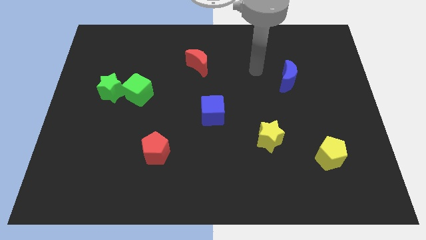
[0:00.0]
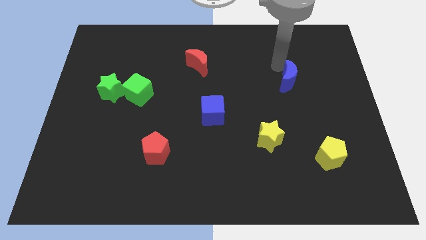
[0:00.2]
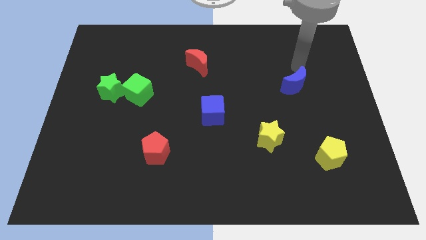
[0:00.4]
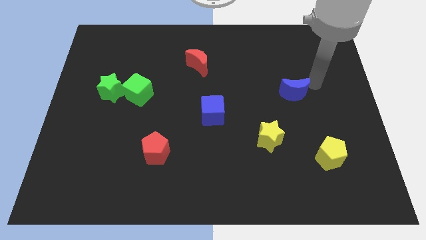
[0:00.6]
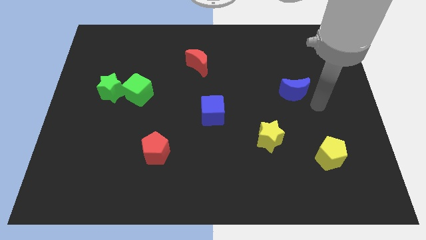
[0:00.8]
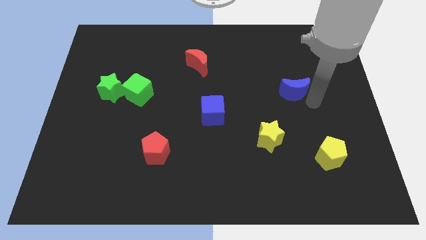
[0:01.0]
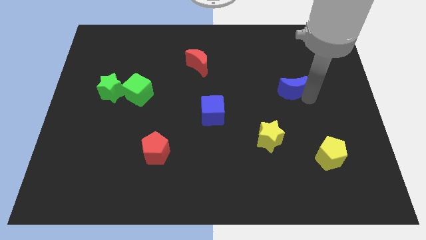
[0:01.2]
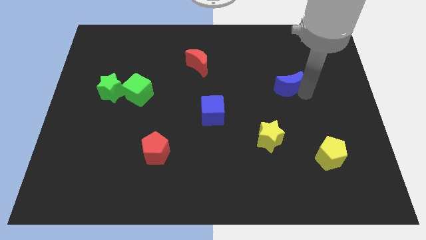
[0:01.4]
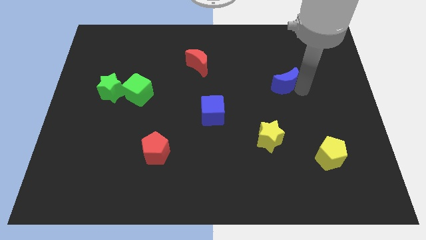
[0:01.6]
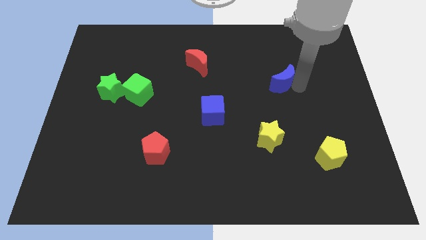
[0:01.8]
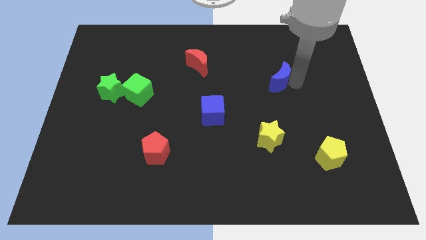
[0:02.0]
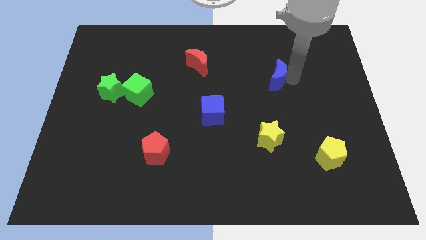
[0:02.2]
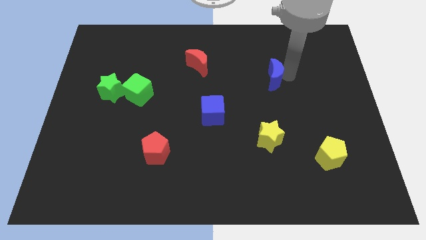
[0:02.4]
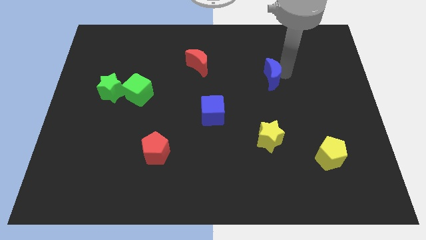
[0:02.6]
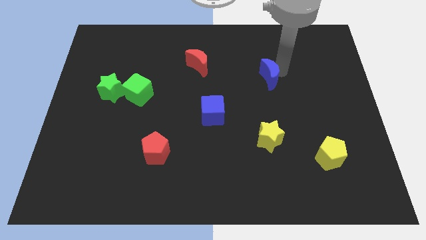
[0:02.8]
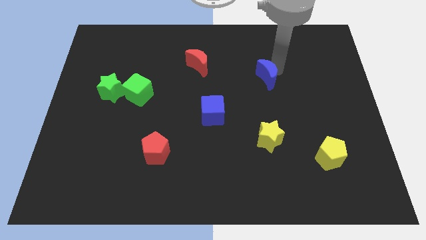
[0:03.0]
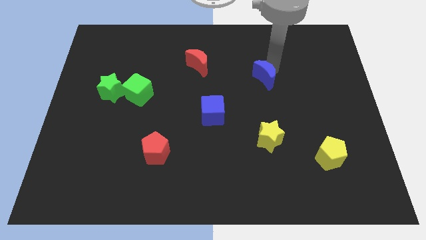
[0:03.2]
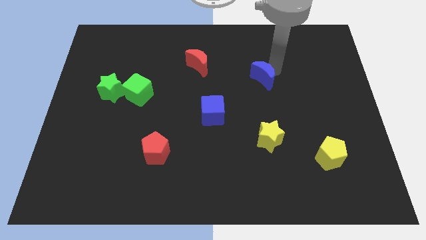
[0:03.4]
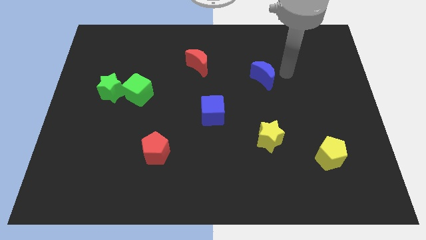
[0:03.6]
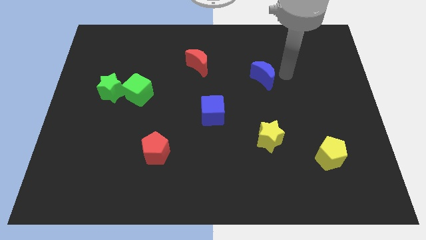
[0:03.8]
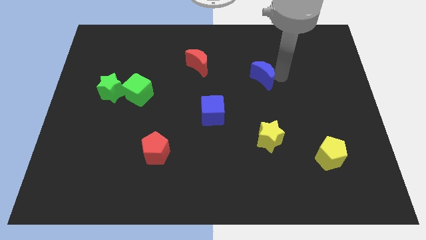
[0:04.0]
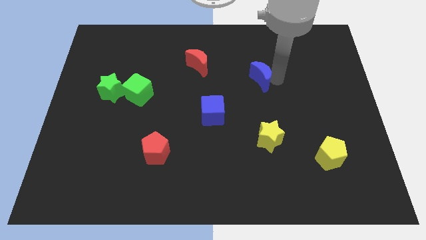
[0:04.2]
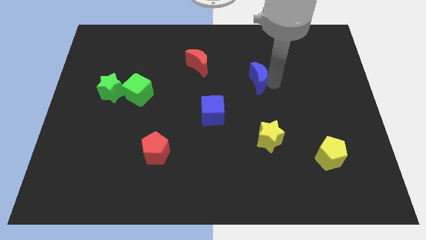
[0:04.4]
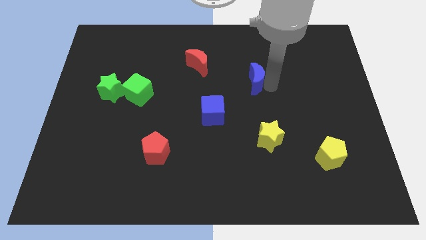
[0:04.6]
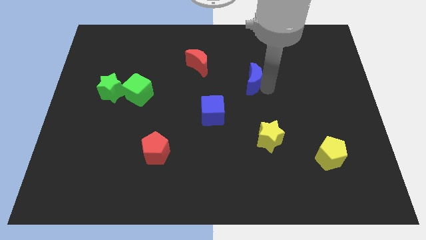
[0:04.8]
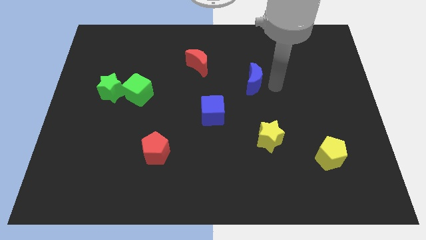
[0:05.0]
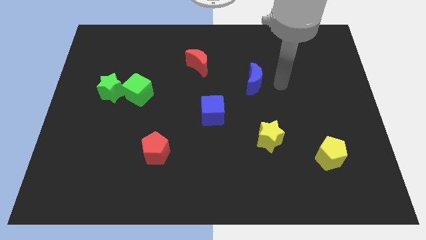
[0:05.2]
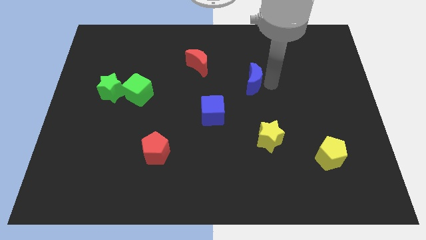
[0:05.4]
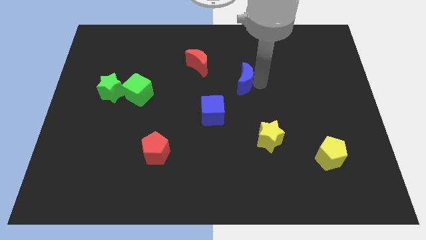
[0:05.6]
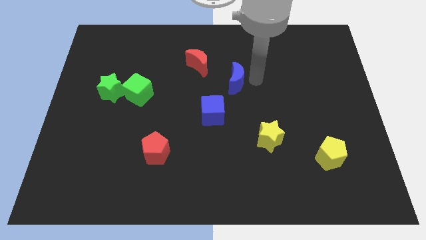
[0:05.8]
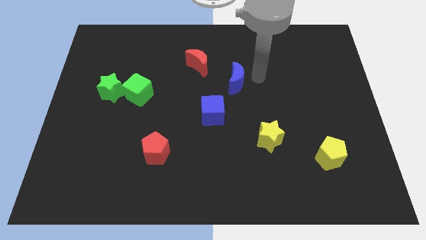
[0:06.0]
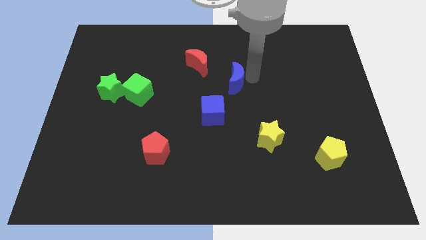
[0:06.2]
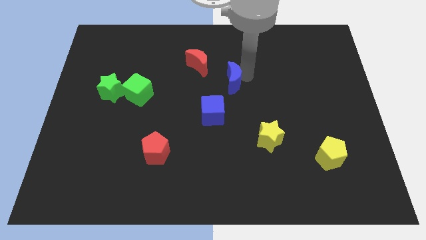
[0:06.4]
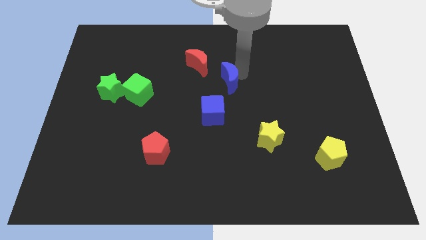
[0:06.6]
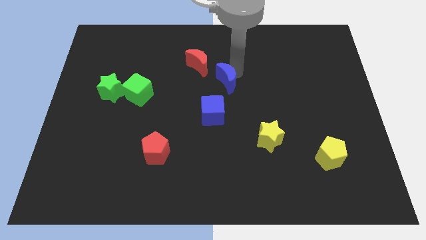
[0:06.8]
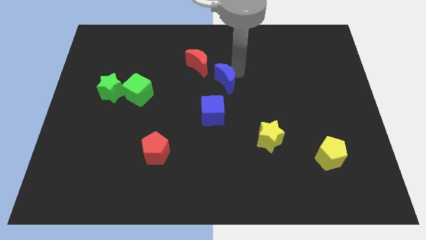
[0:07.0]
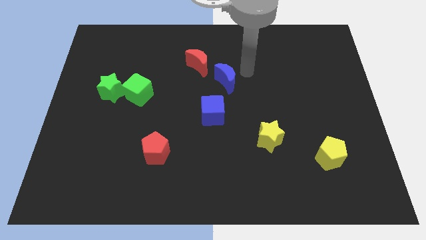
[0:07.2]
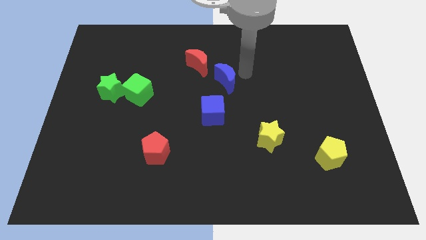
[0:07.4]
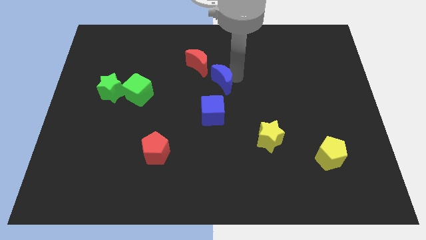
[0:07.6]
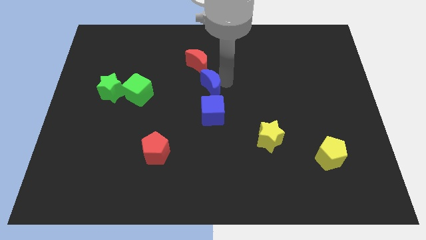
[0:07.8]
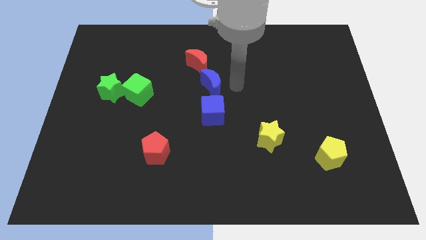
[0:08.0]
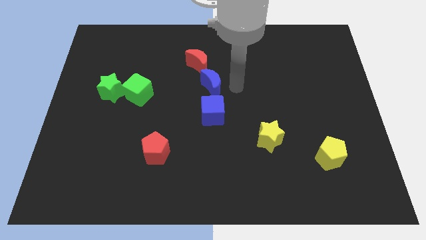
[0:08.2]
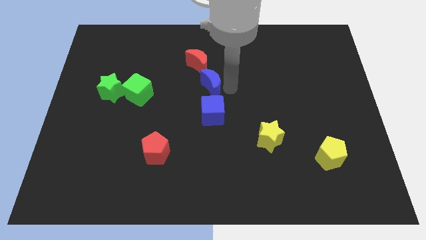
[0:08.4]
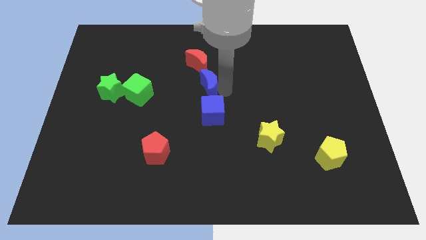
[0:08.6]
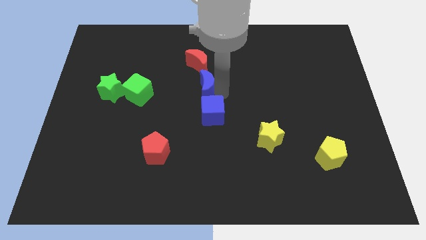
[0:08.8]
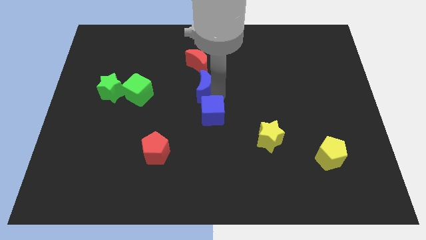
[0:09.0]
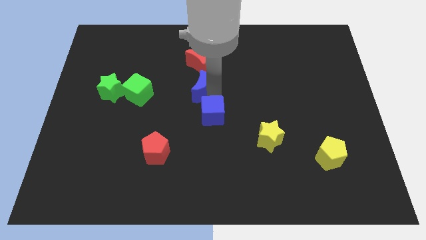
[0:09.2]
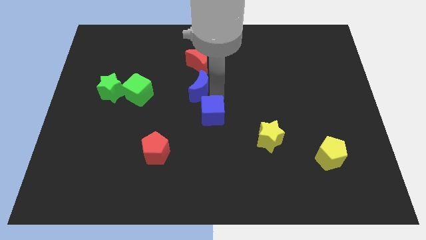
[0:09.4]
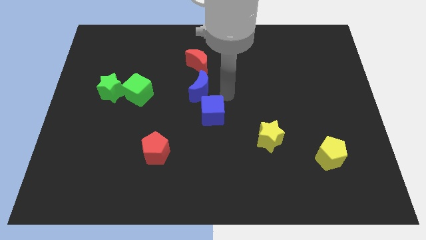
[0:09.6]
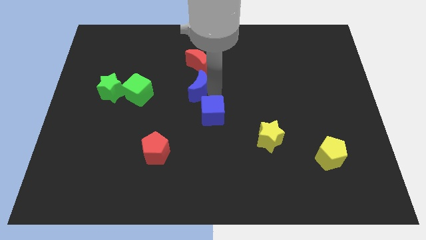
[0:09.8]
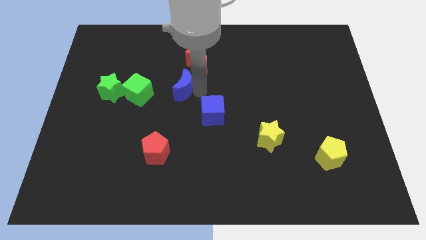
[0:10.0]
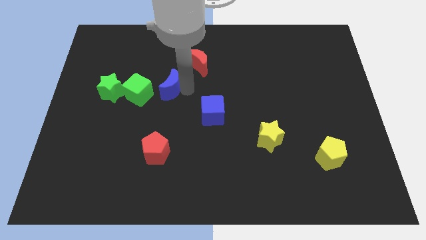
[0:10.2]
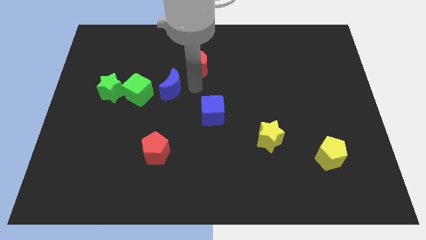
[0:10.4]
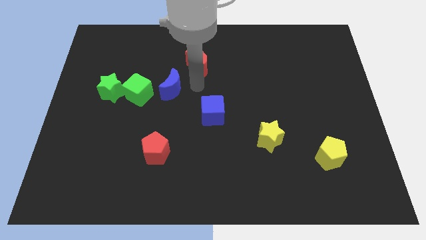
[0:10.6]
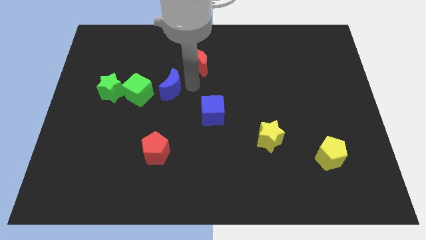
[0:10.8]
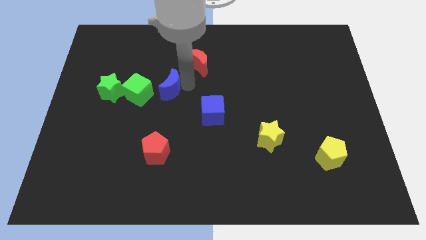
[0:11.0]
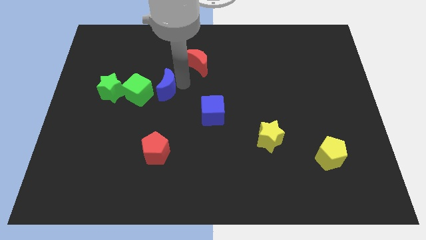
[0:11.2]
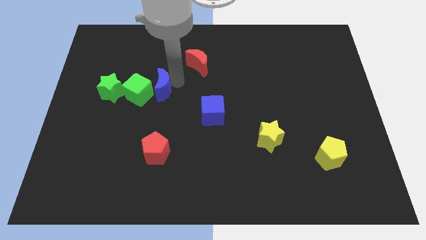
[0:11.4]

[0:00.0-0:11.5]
move the blue moon to the green cube

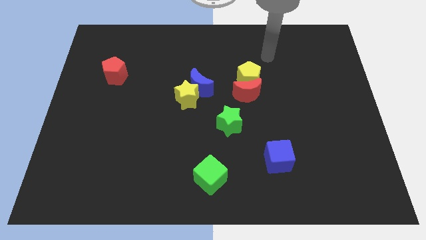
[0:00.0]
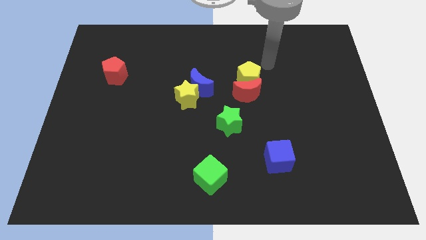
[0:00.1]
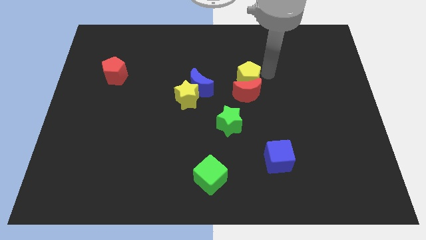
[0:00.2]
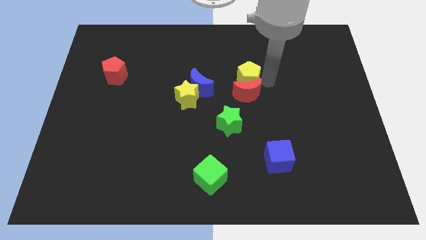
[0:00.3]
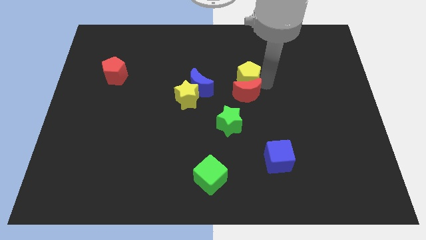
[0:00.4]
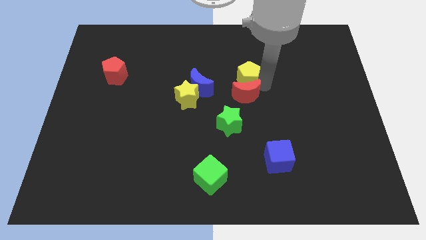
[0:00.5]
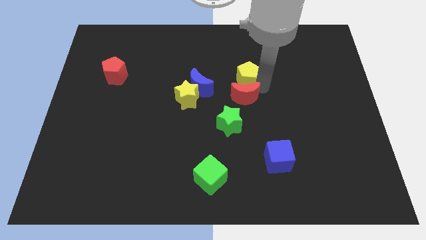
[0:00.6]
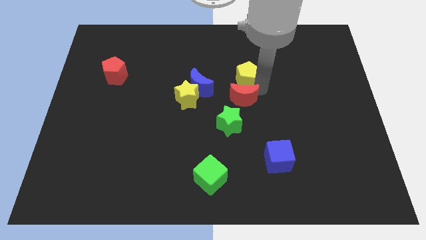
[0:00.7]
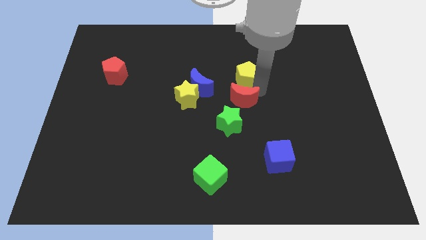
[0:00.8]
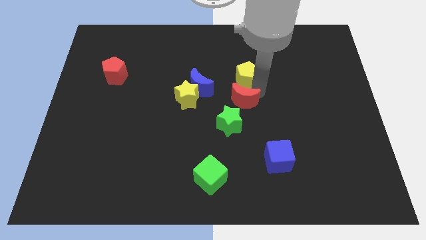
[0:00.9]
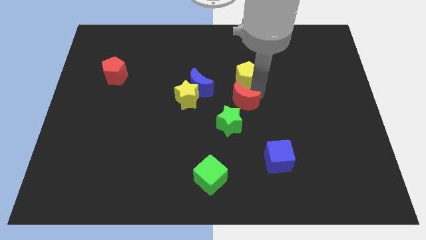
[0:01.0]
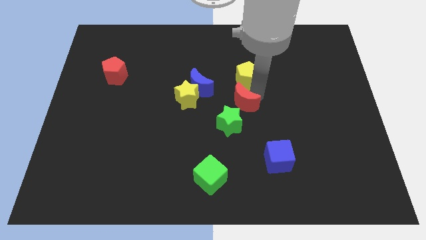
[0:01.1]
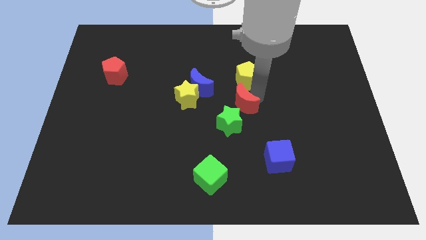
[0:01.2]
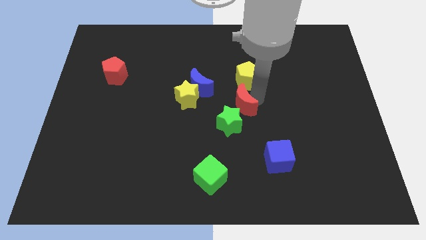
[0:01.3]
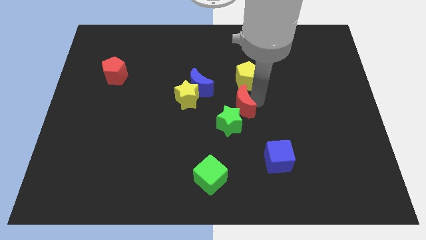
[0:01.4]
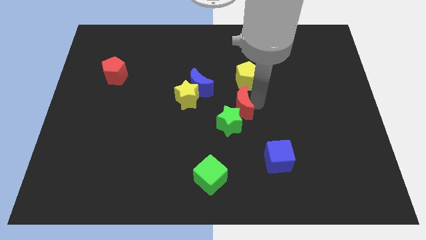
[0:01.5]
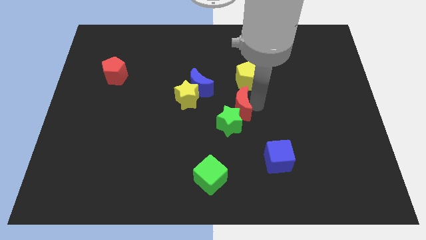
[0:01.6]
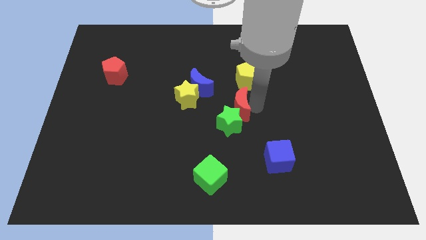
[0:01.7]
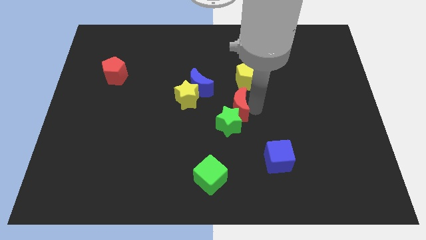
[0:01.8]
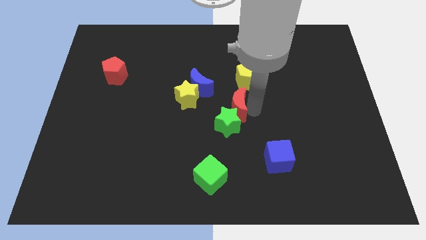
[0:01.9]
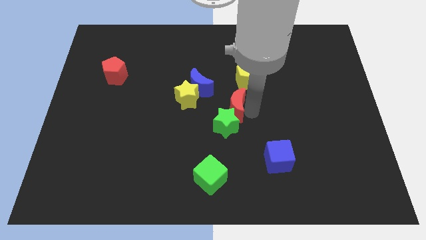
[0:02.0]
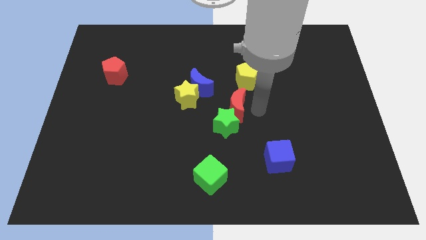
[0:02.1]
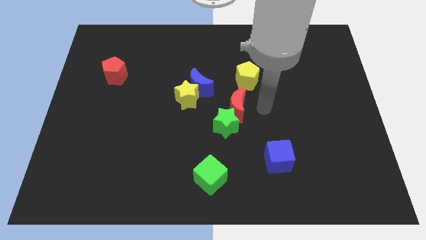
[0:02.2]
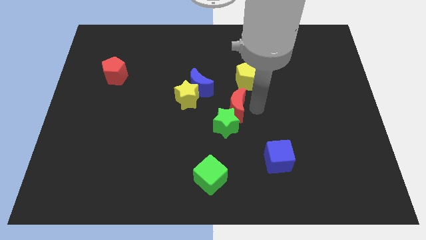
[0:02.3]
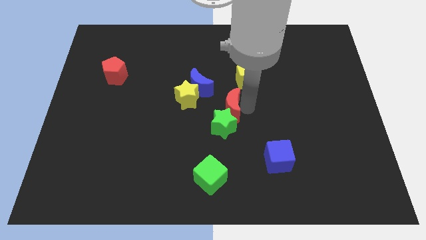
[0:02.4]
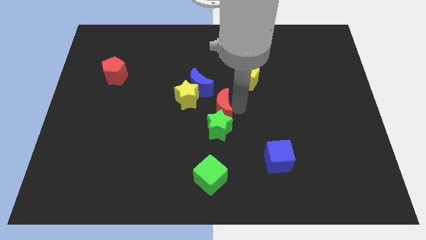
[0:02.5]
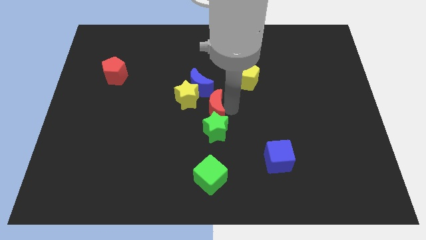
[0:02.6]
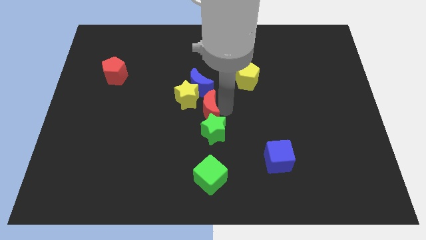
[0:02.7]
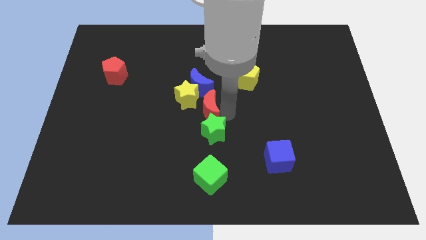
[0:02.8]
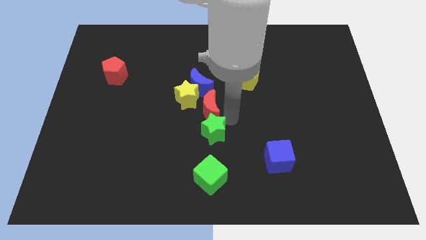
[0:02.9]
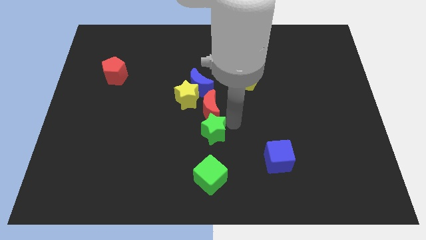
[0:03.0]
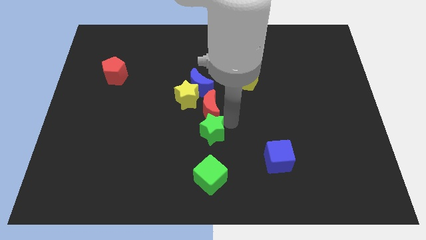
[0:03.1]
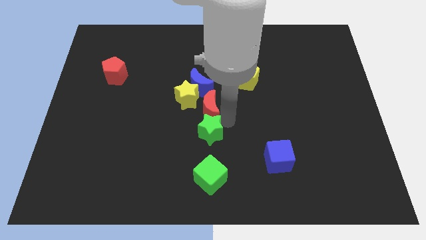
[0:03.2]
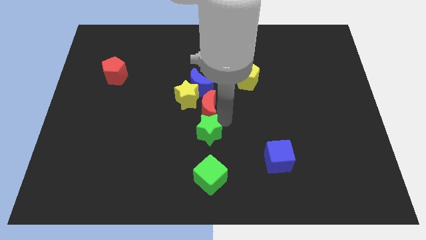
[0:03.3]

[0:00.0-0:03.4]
put the red moon next to the yellow star
